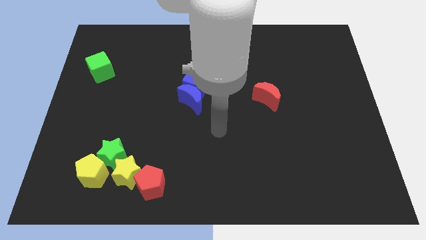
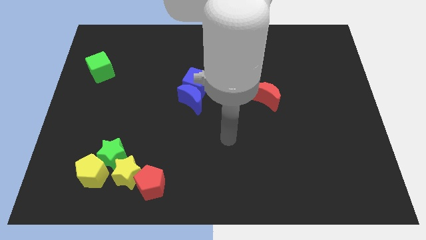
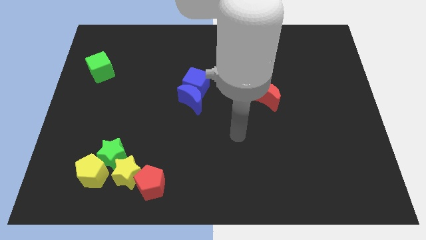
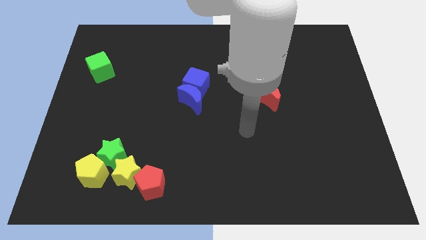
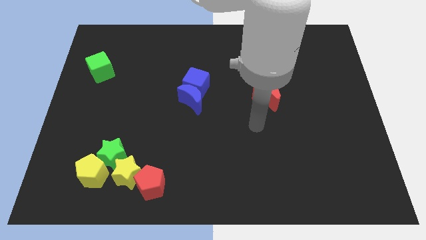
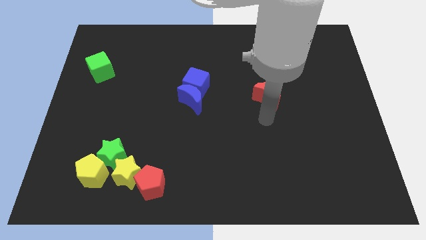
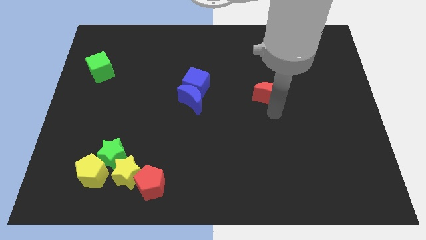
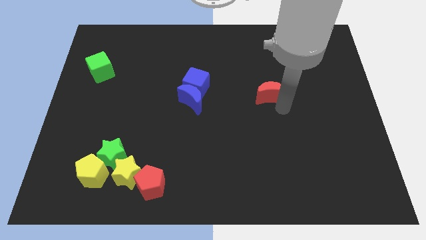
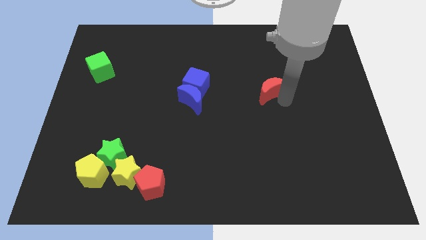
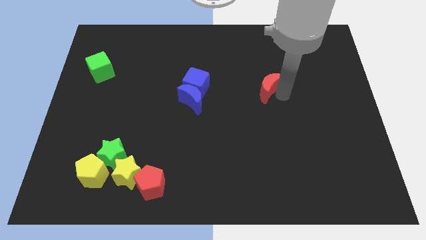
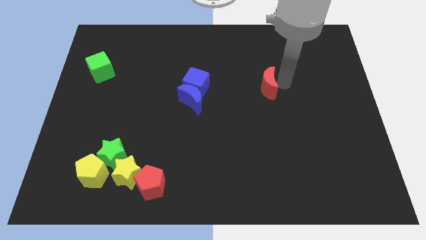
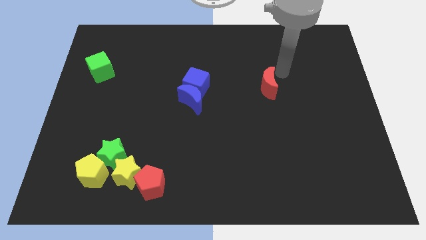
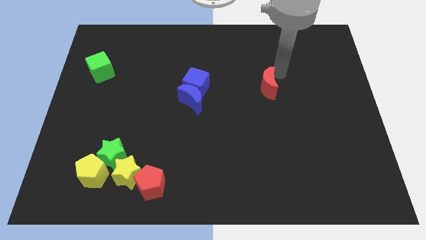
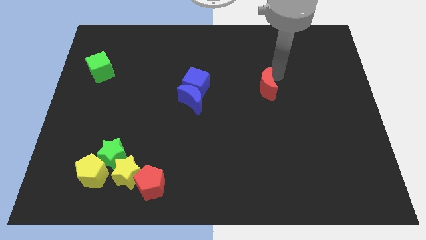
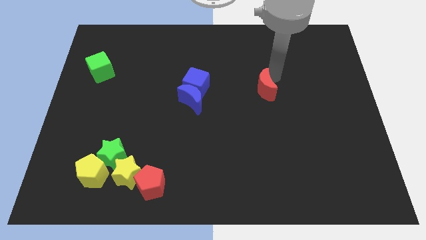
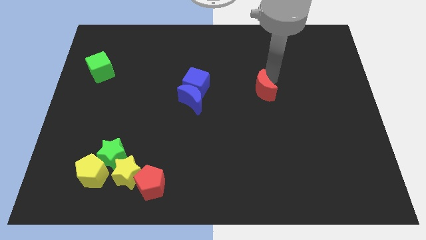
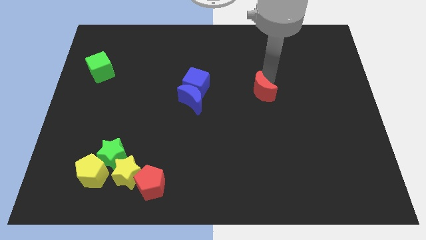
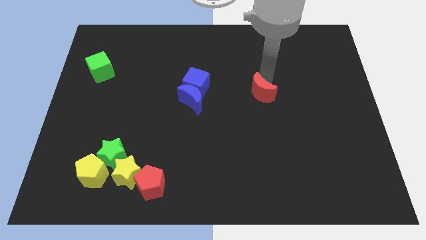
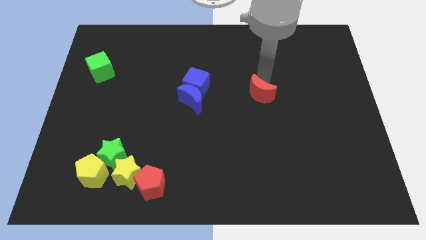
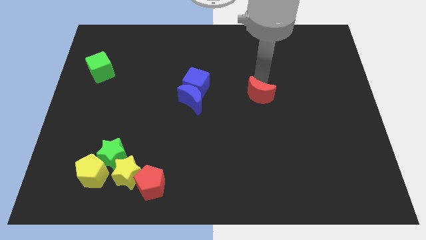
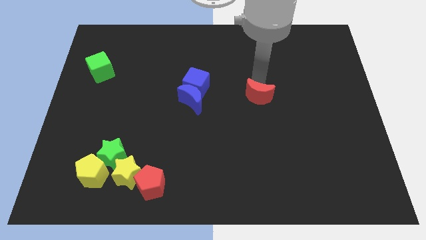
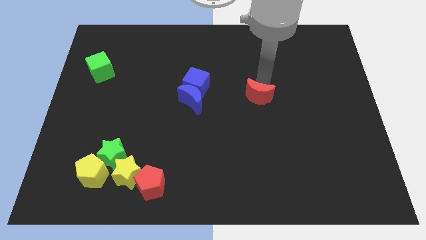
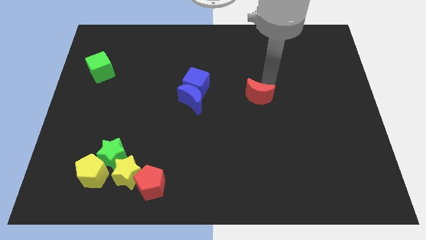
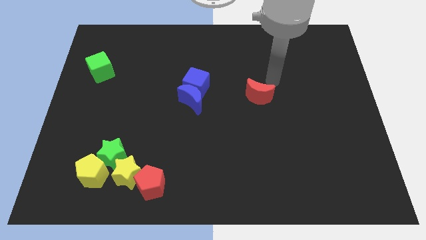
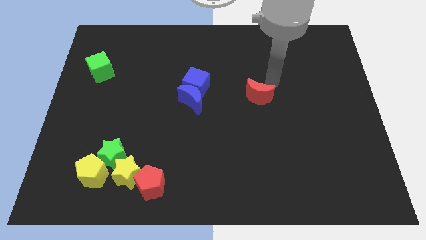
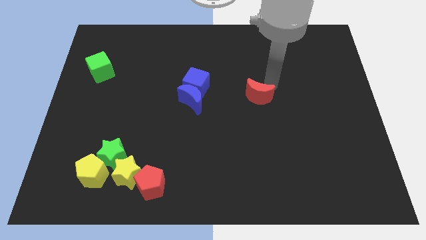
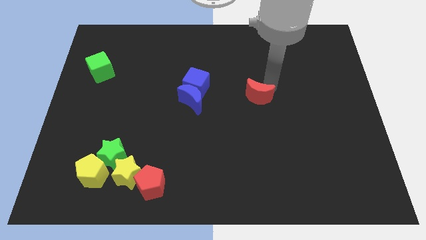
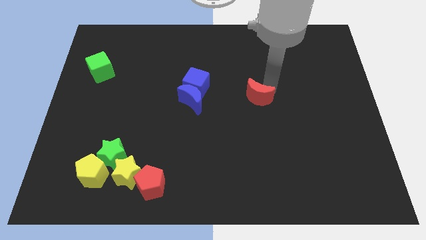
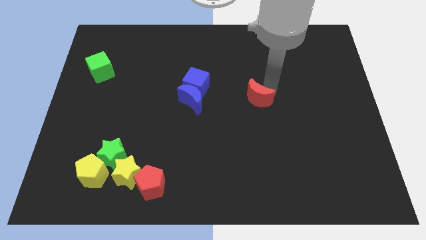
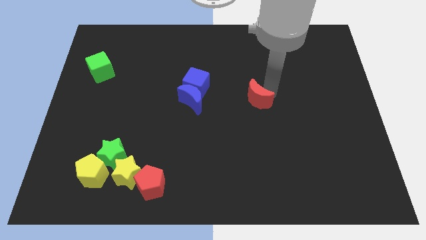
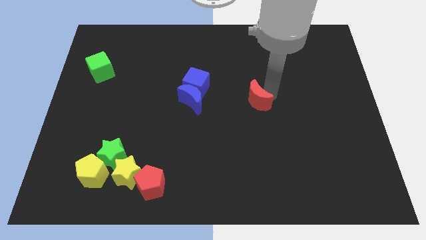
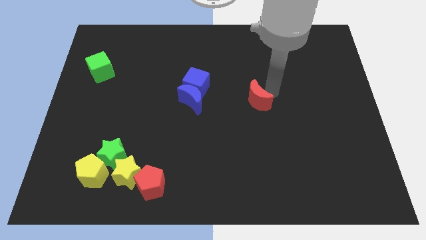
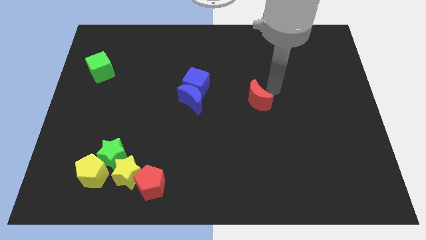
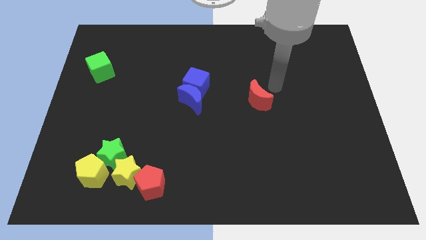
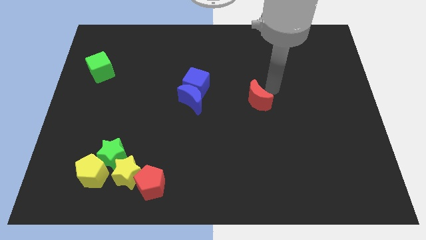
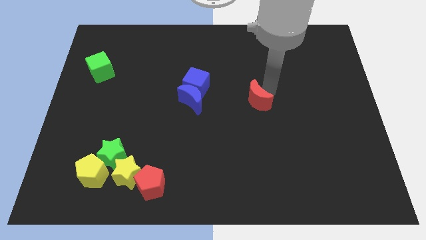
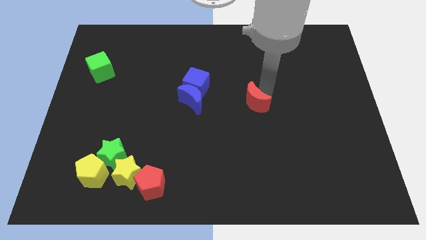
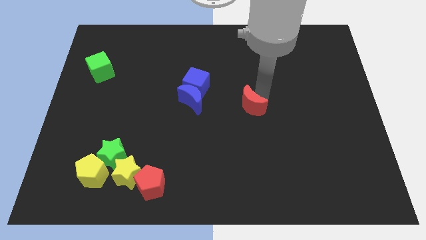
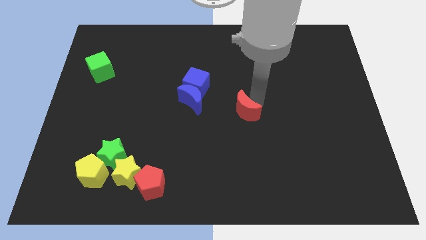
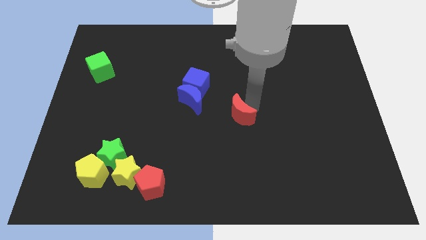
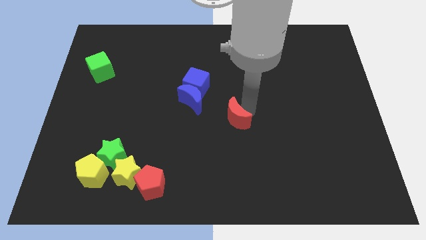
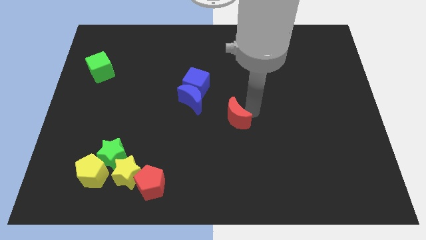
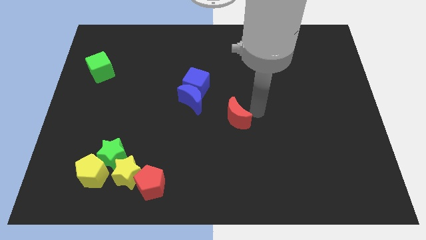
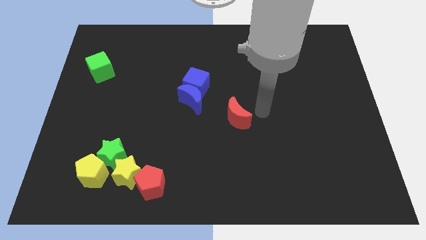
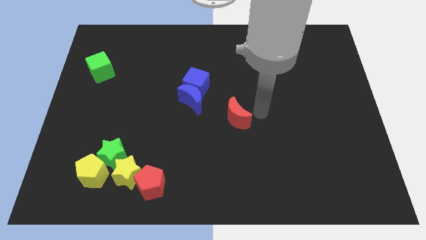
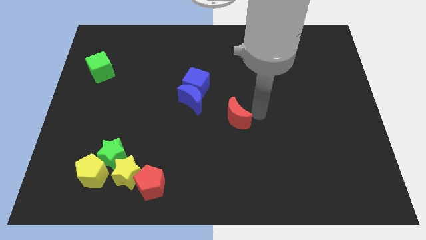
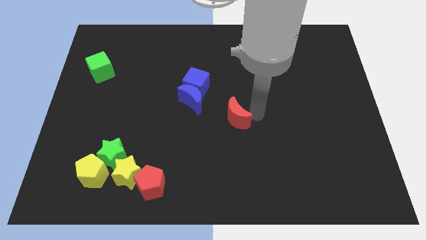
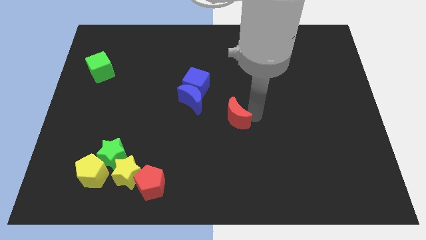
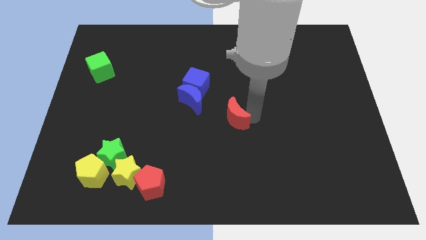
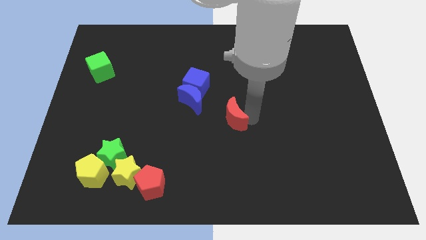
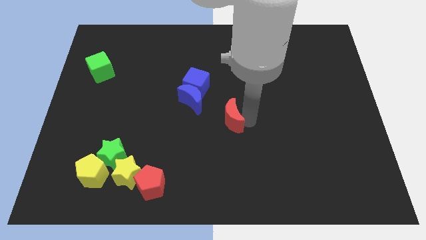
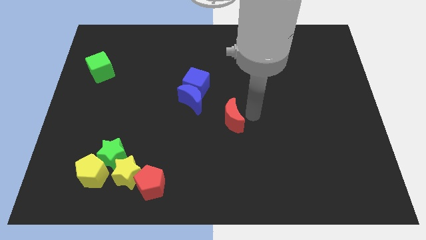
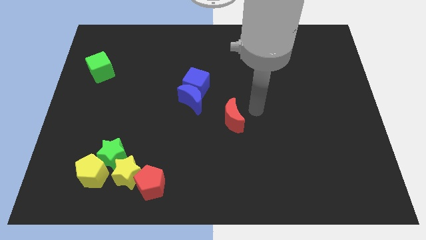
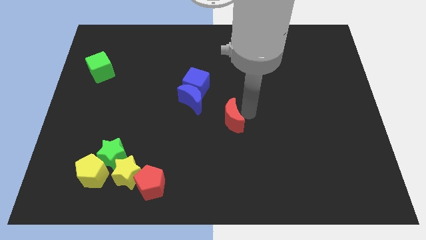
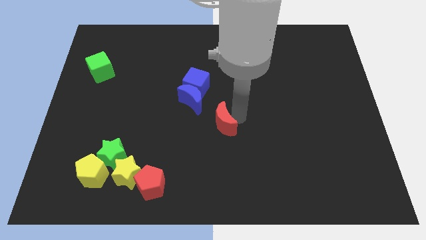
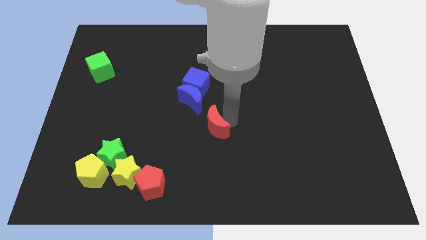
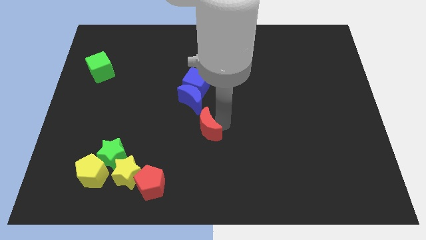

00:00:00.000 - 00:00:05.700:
put the red moon to the bottom side of the blue moon

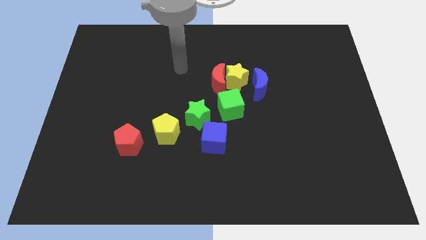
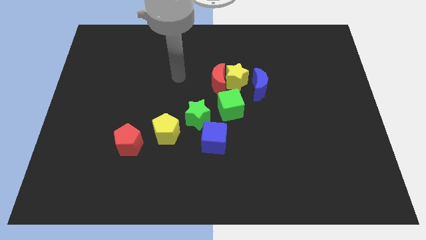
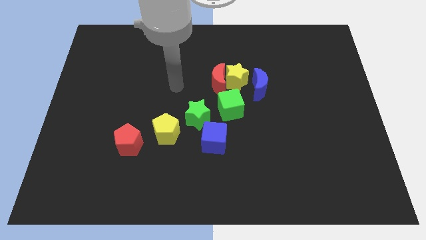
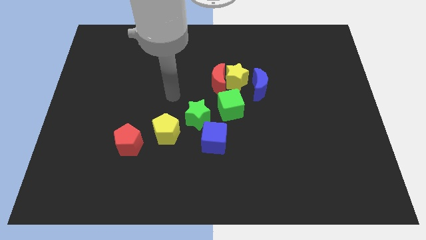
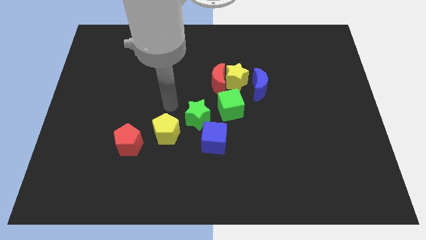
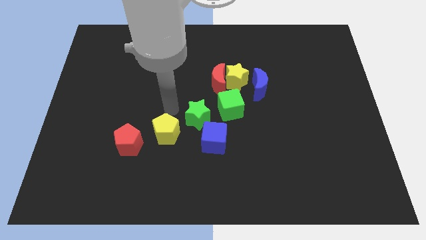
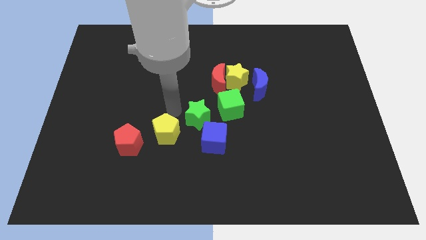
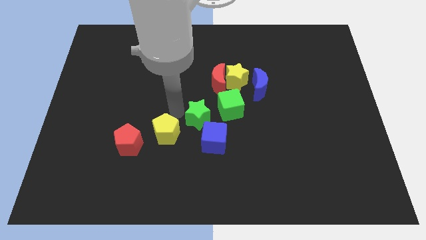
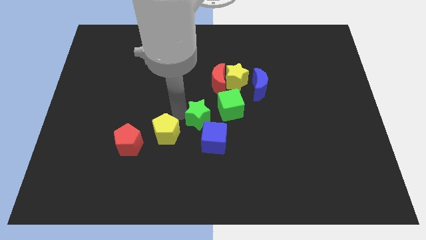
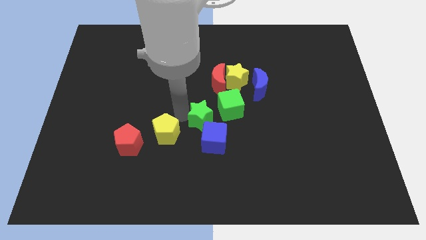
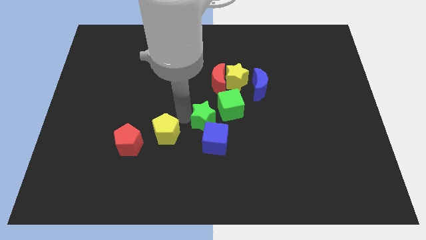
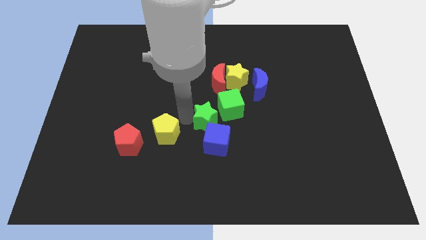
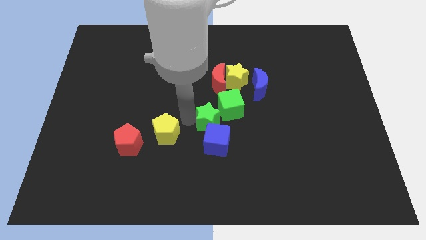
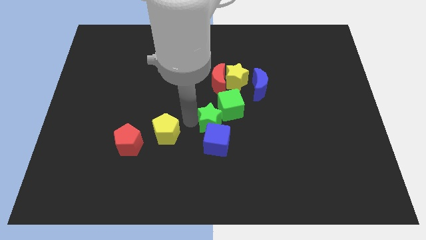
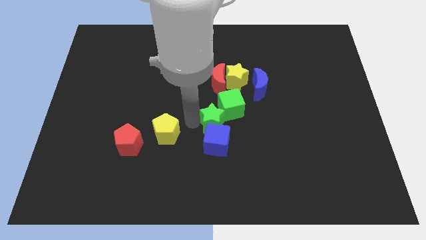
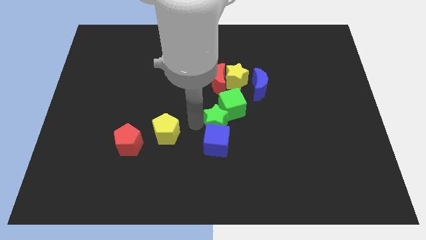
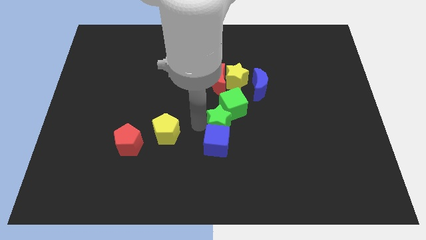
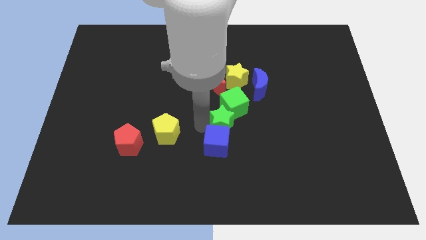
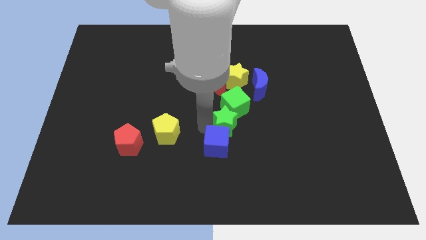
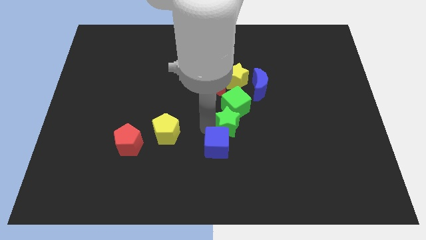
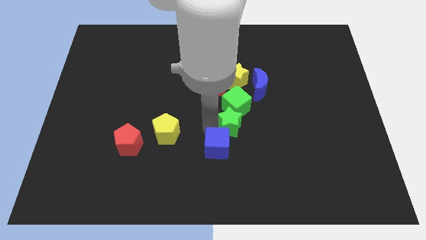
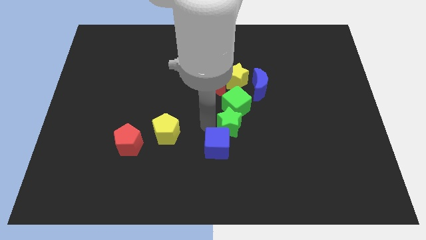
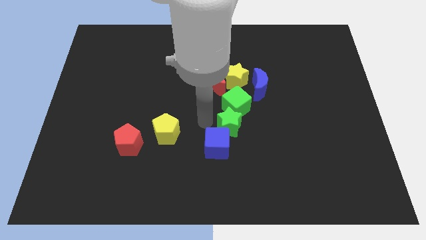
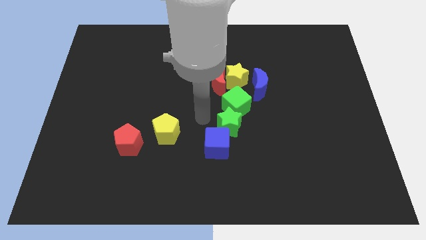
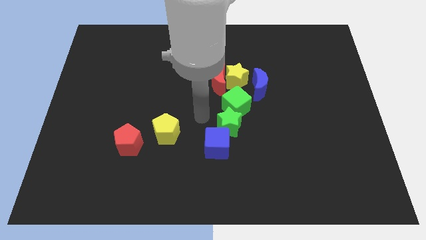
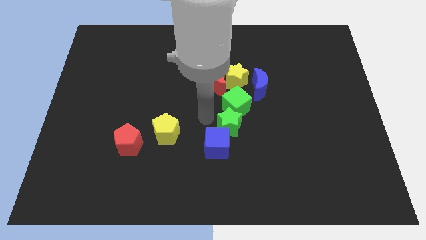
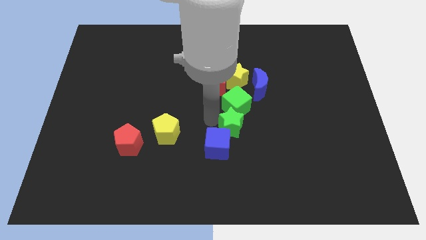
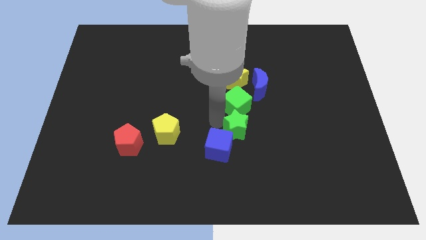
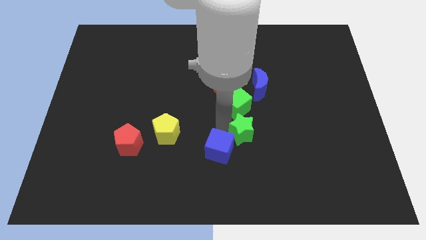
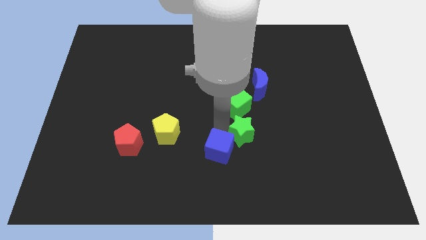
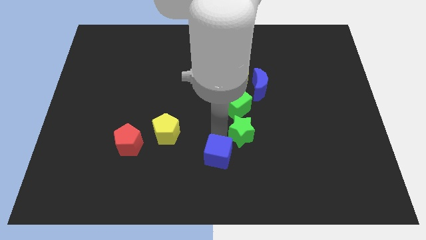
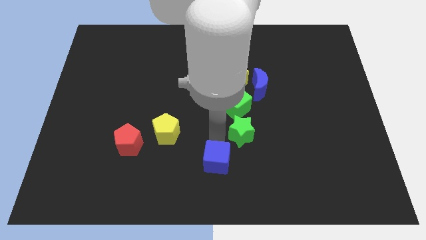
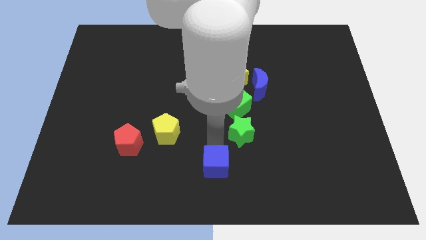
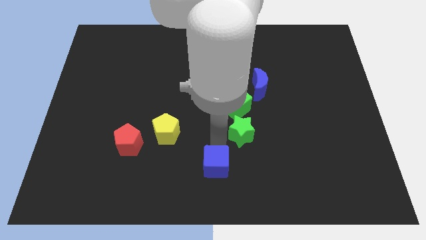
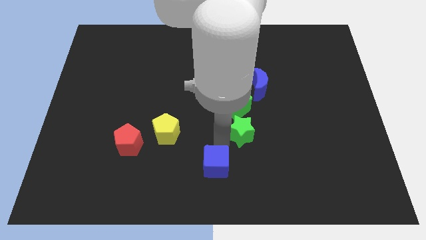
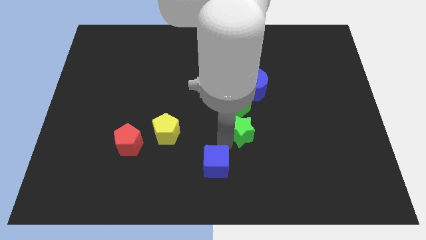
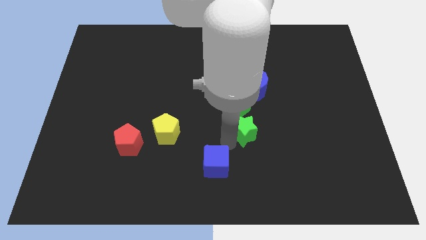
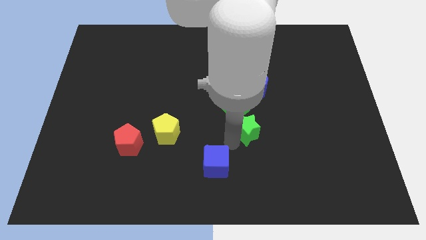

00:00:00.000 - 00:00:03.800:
move the green star below the blue moon
